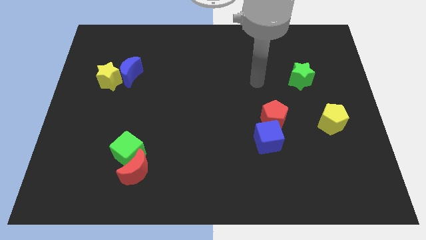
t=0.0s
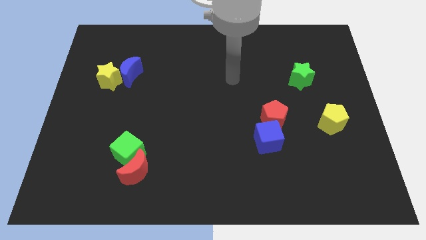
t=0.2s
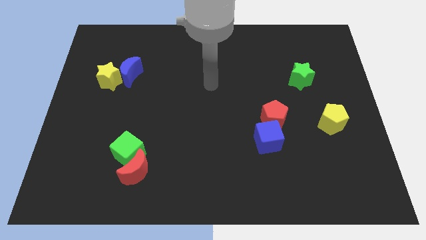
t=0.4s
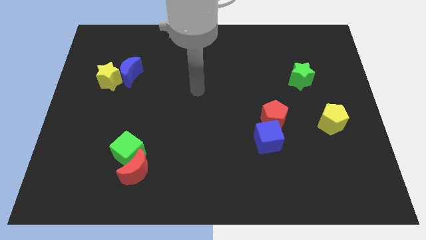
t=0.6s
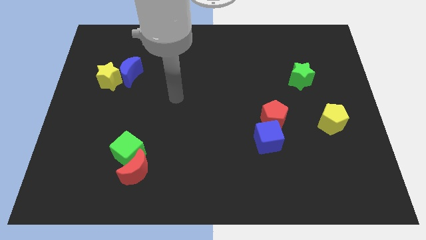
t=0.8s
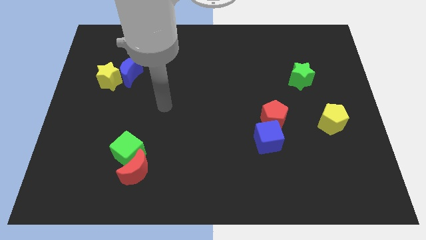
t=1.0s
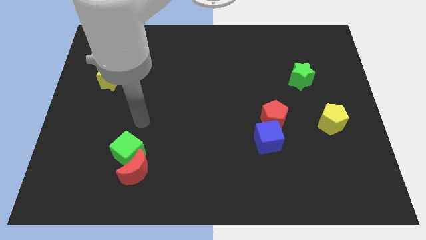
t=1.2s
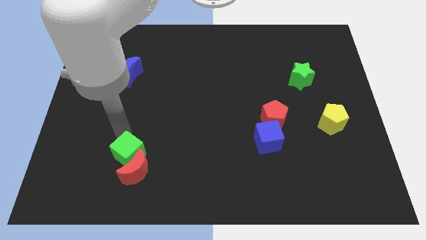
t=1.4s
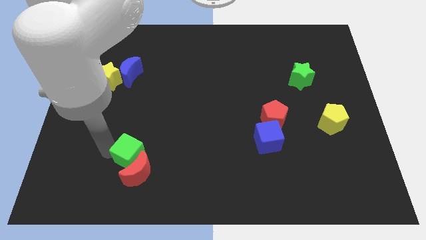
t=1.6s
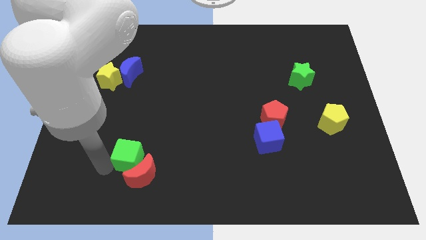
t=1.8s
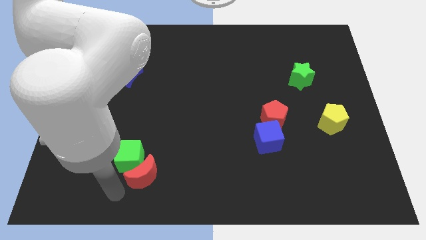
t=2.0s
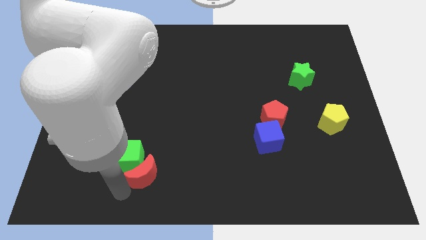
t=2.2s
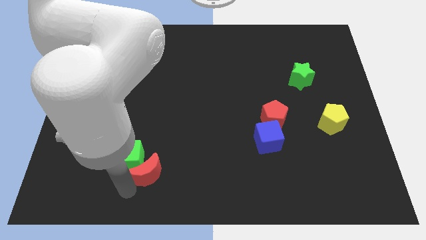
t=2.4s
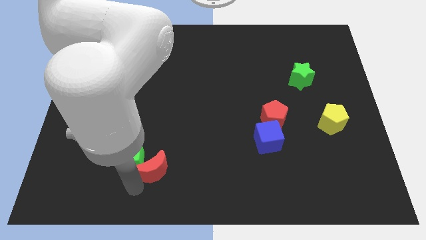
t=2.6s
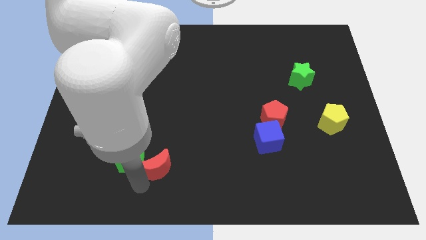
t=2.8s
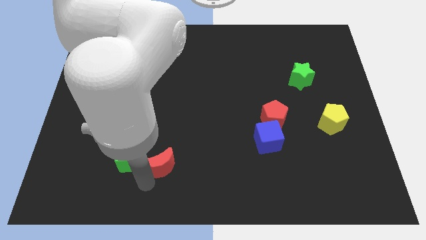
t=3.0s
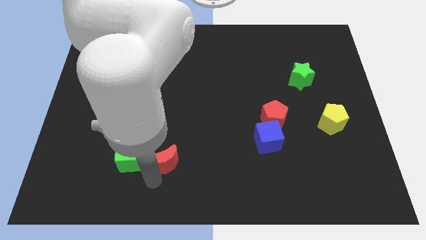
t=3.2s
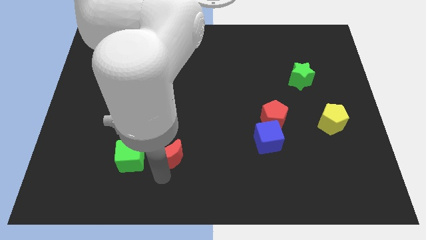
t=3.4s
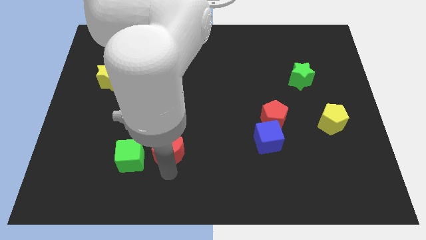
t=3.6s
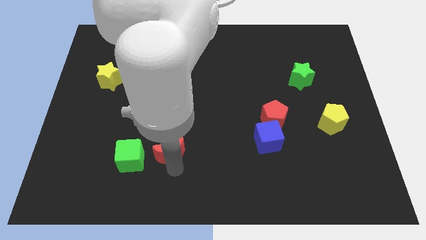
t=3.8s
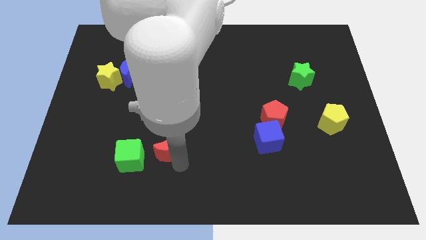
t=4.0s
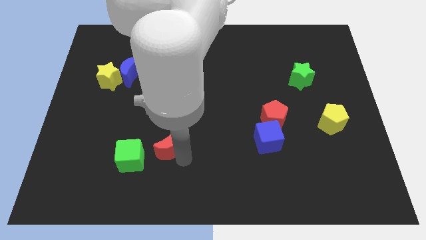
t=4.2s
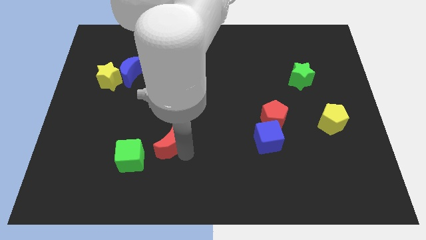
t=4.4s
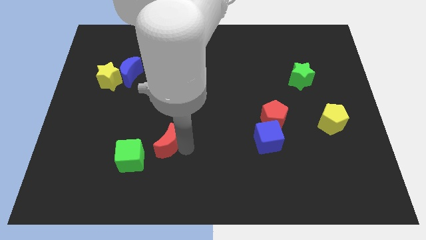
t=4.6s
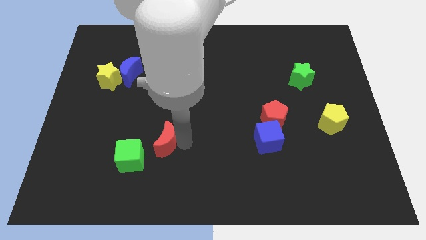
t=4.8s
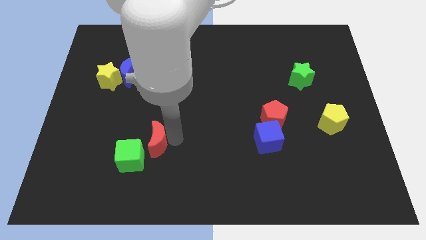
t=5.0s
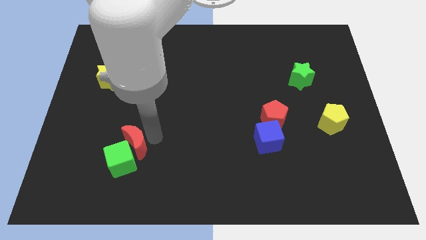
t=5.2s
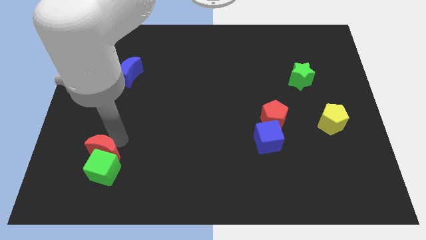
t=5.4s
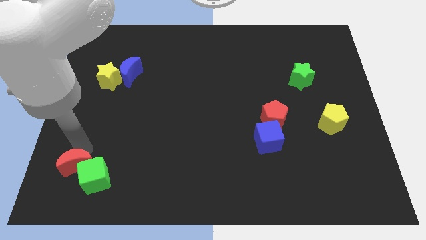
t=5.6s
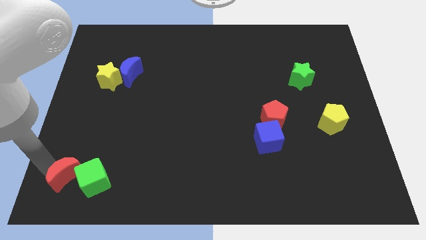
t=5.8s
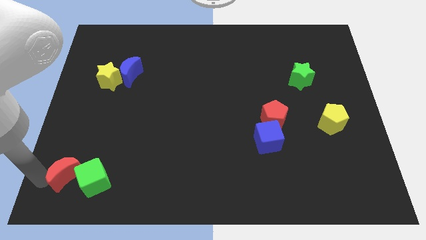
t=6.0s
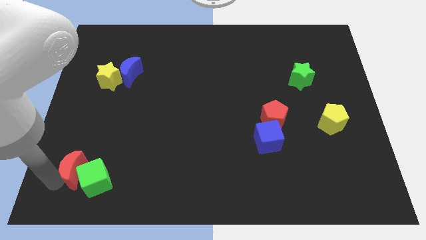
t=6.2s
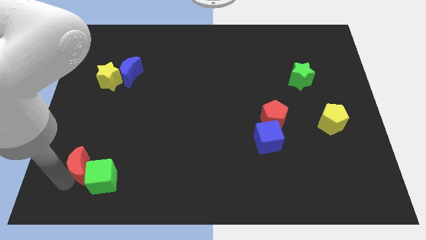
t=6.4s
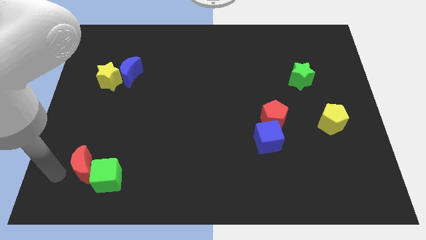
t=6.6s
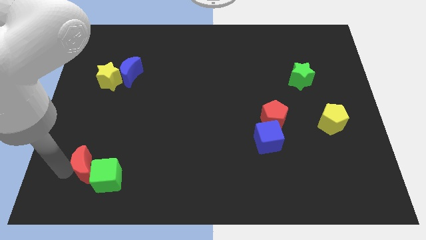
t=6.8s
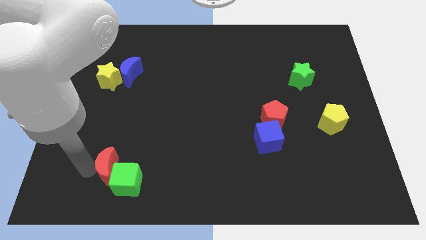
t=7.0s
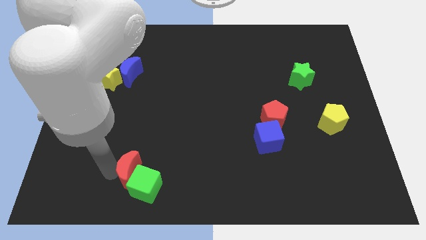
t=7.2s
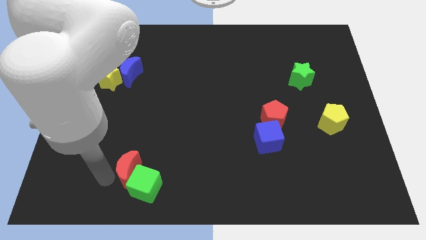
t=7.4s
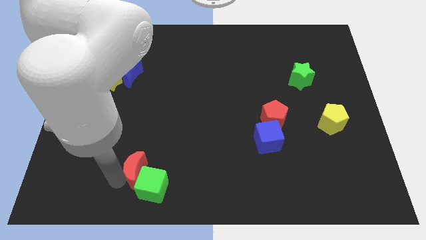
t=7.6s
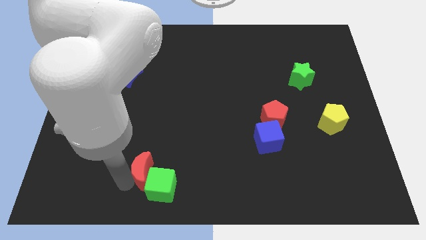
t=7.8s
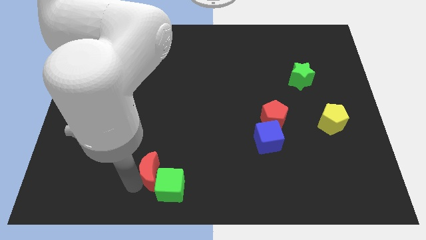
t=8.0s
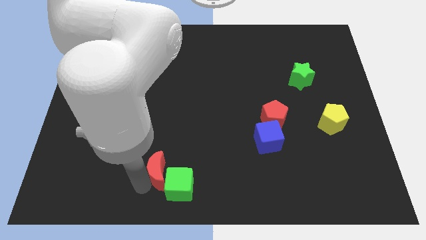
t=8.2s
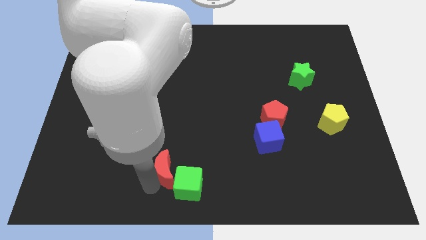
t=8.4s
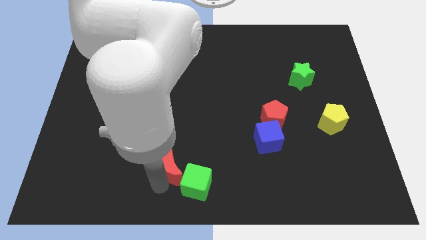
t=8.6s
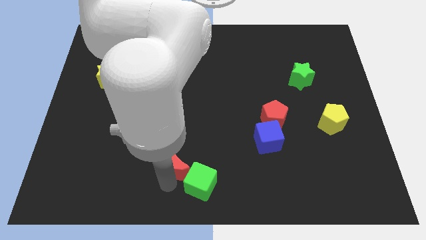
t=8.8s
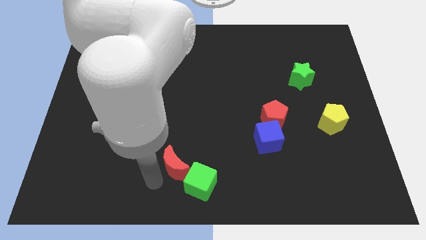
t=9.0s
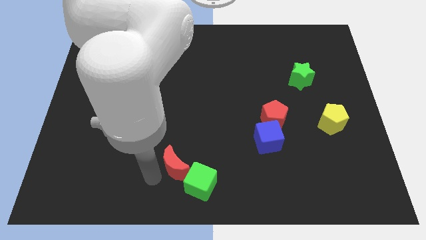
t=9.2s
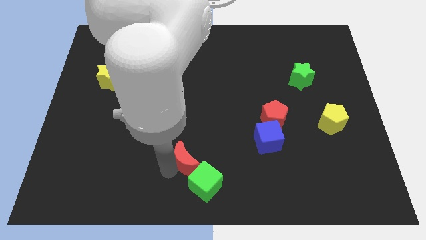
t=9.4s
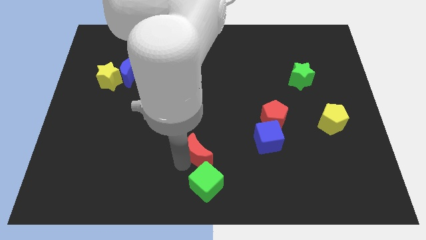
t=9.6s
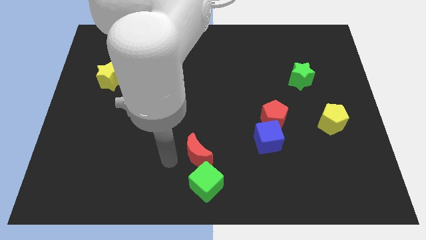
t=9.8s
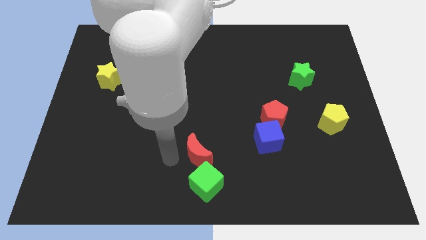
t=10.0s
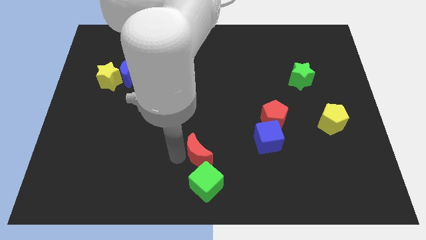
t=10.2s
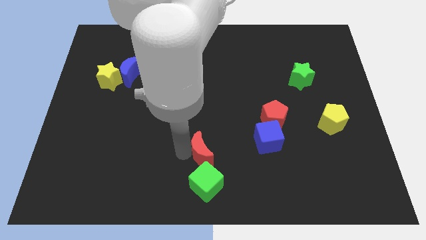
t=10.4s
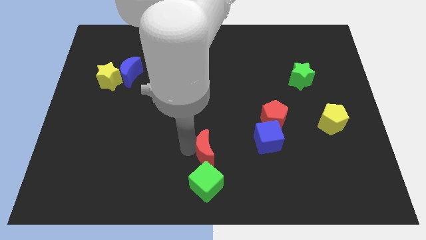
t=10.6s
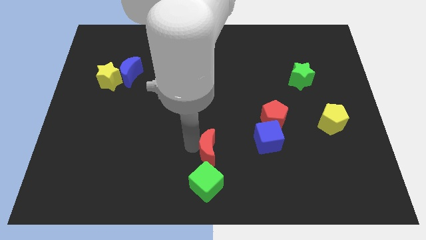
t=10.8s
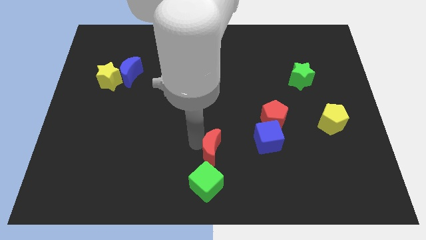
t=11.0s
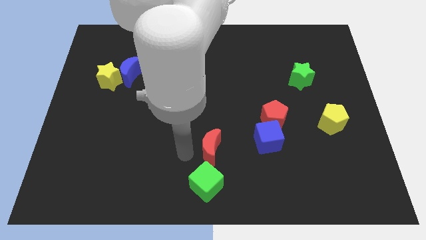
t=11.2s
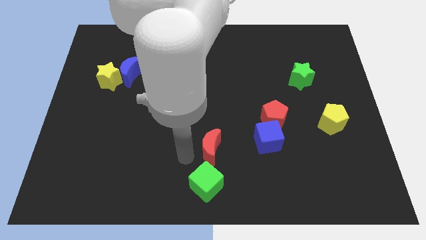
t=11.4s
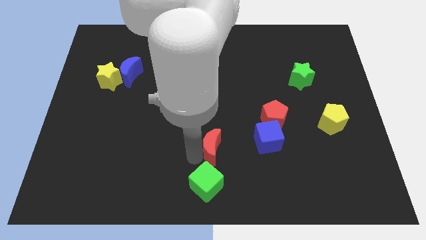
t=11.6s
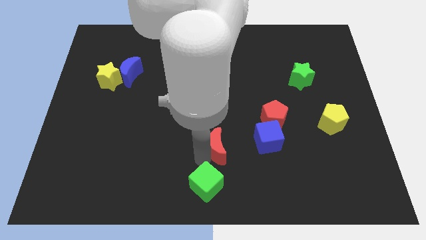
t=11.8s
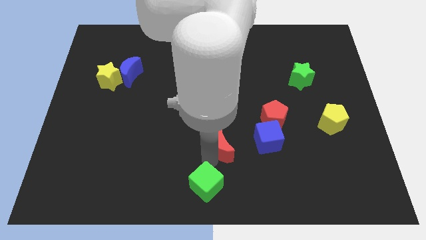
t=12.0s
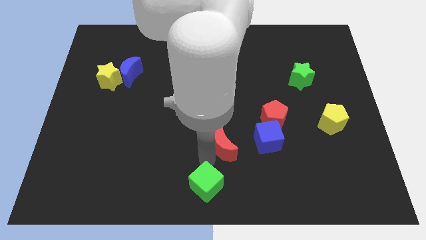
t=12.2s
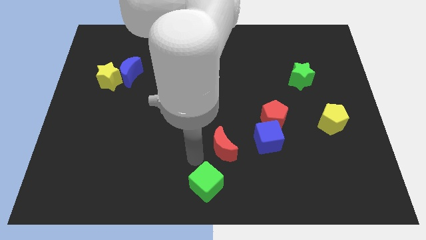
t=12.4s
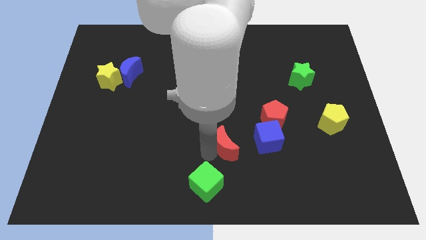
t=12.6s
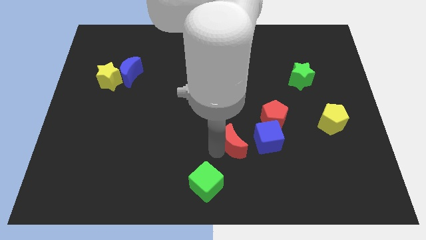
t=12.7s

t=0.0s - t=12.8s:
push the red moon to the bottom left of the red pentagon

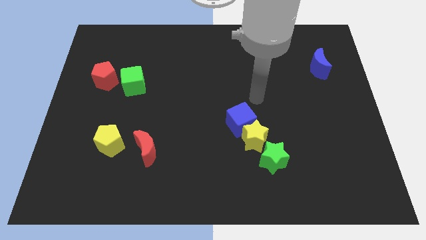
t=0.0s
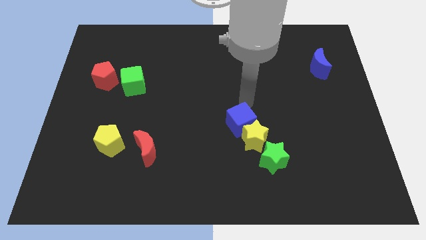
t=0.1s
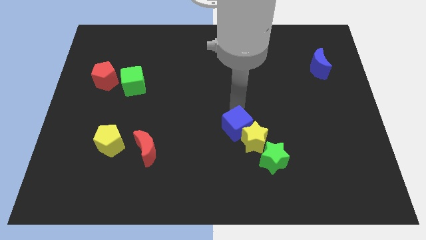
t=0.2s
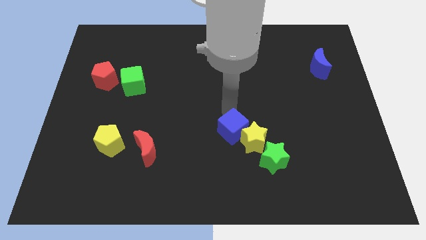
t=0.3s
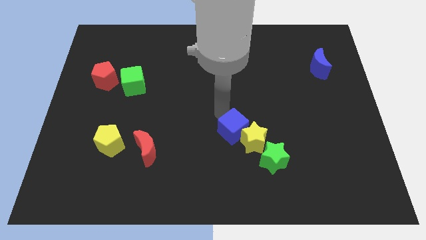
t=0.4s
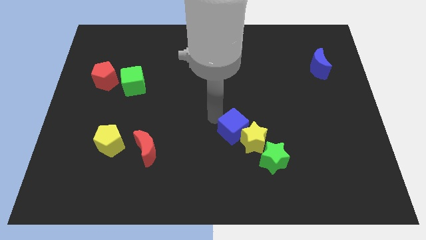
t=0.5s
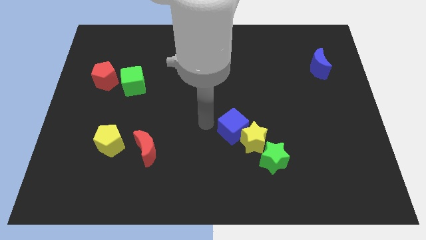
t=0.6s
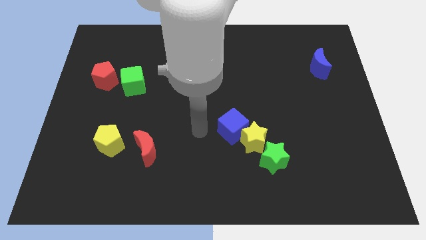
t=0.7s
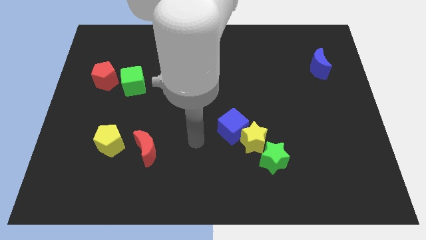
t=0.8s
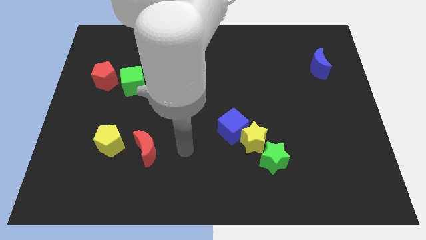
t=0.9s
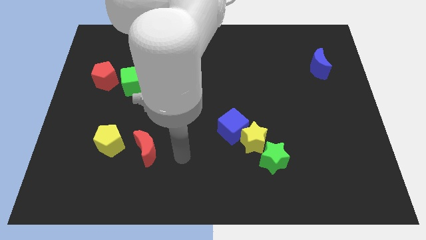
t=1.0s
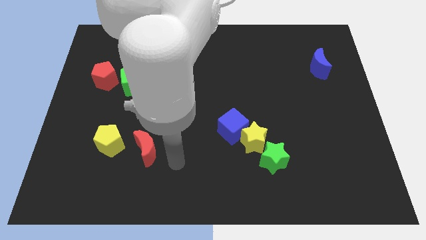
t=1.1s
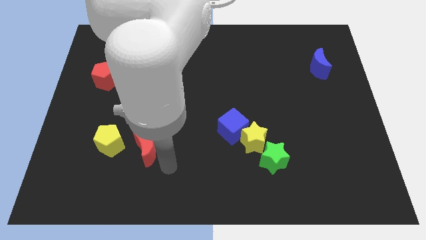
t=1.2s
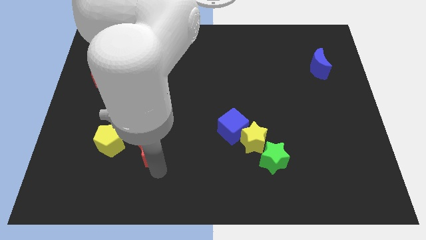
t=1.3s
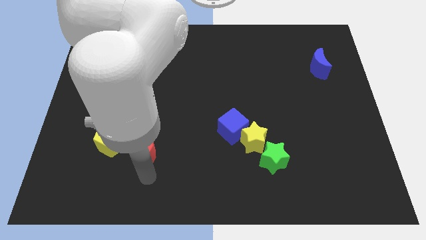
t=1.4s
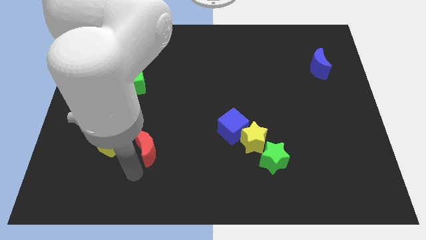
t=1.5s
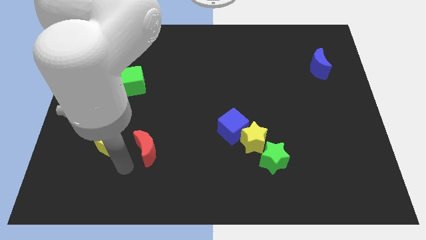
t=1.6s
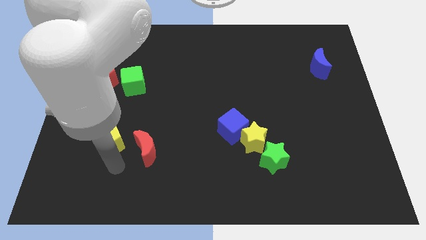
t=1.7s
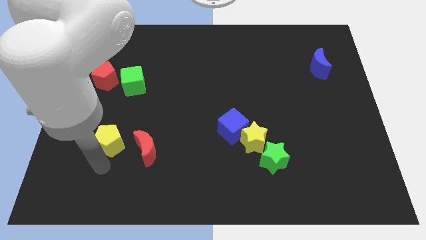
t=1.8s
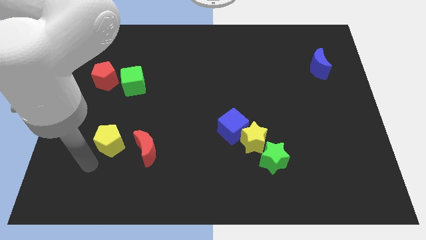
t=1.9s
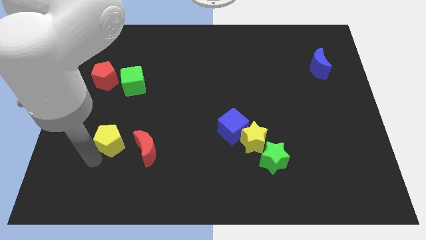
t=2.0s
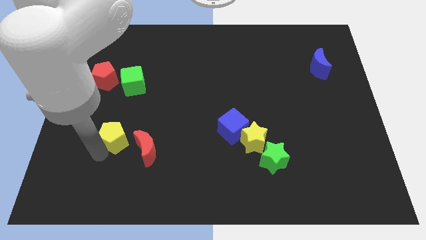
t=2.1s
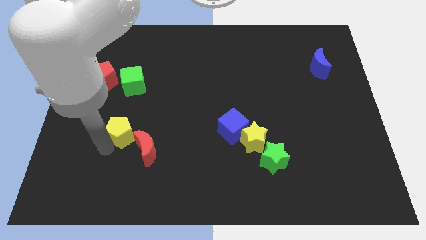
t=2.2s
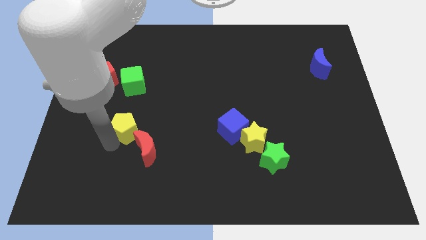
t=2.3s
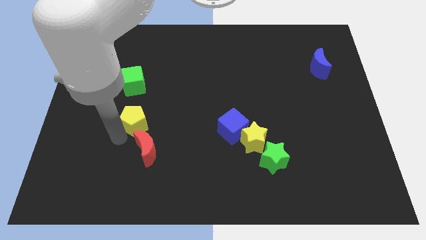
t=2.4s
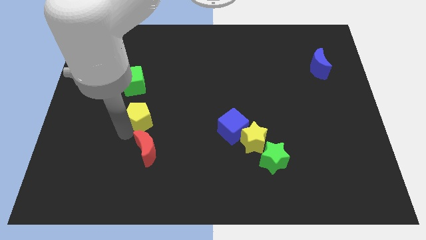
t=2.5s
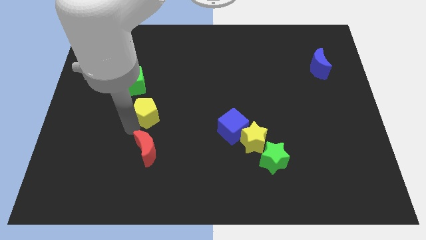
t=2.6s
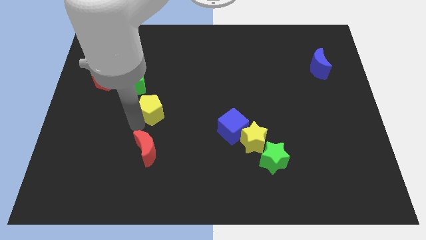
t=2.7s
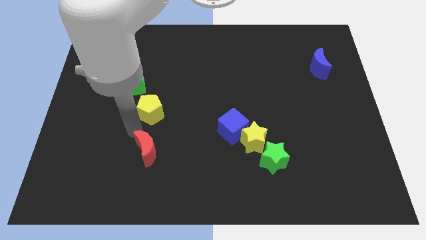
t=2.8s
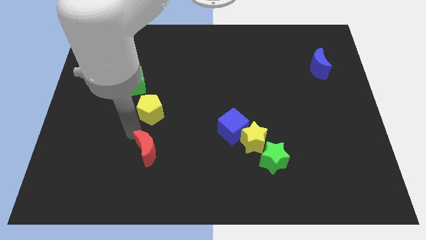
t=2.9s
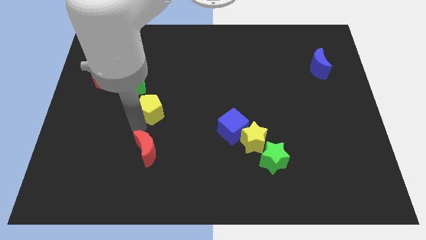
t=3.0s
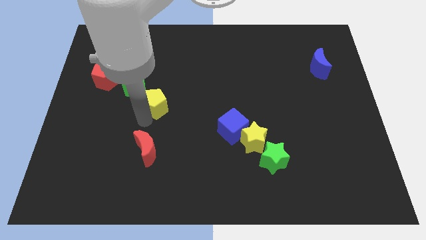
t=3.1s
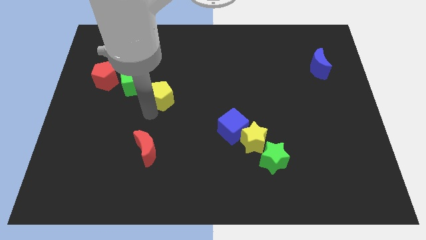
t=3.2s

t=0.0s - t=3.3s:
put the yellow pentagon to the right side of the green cube
